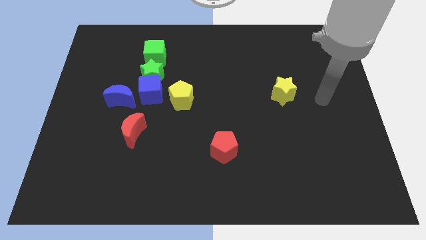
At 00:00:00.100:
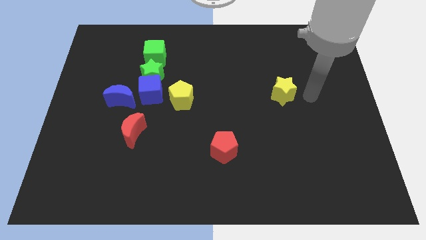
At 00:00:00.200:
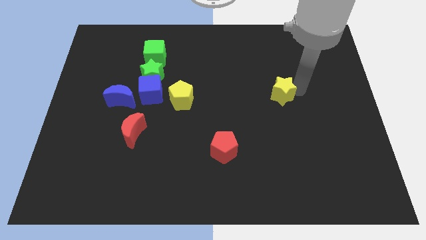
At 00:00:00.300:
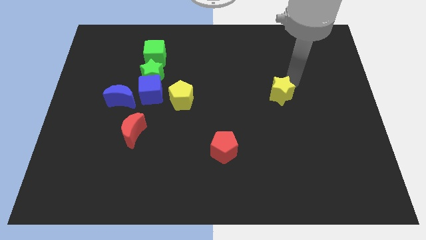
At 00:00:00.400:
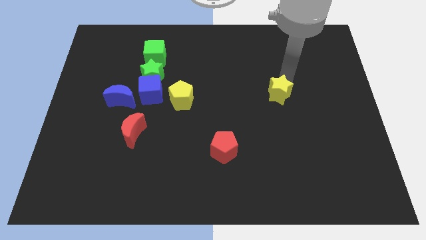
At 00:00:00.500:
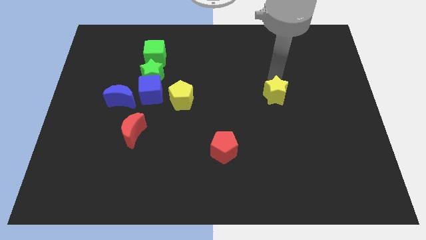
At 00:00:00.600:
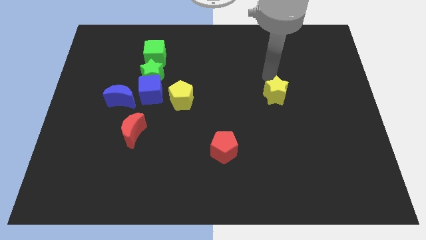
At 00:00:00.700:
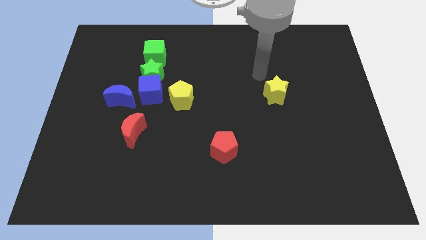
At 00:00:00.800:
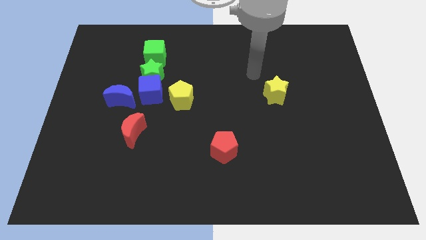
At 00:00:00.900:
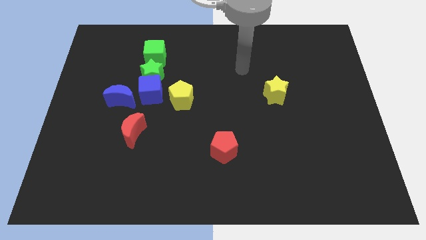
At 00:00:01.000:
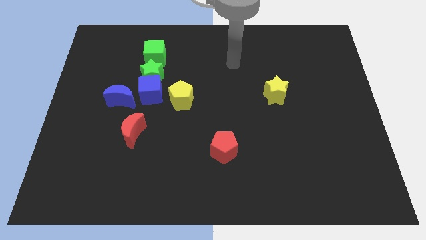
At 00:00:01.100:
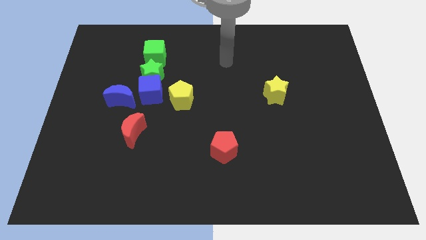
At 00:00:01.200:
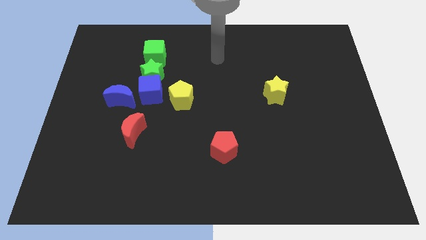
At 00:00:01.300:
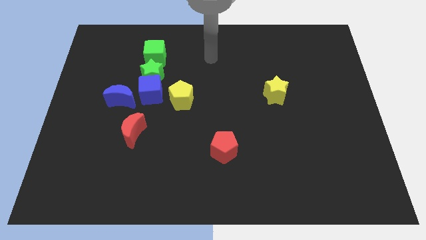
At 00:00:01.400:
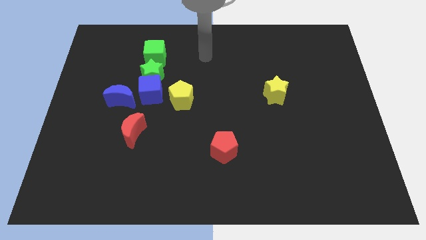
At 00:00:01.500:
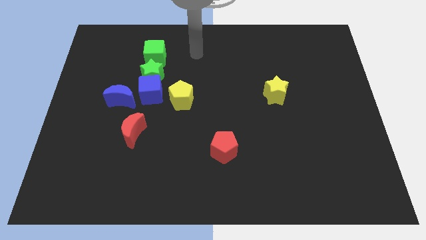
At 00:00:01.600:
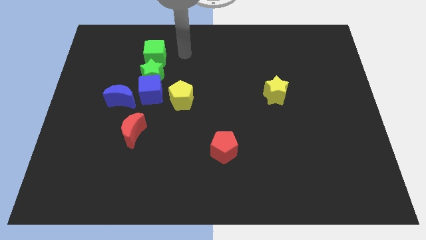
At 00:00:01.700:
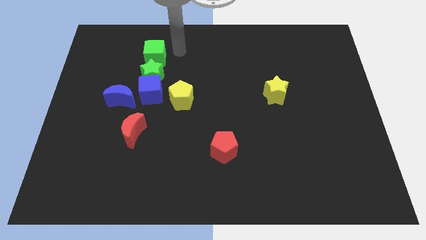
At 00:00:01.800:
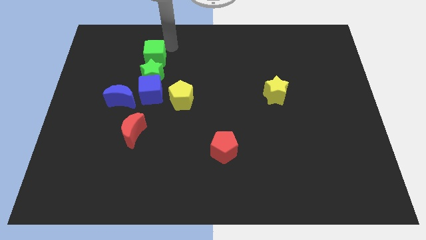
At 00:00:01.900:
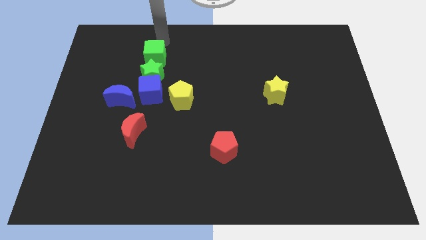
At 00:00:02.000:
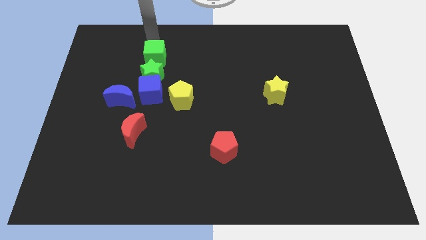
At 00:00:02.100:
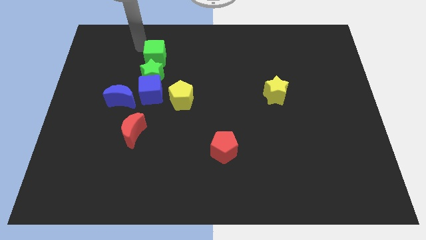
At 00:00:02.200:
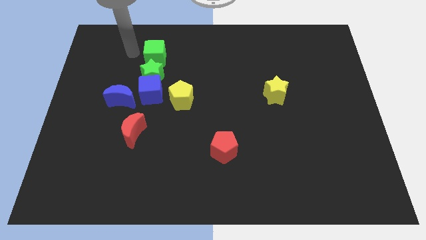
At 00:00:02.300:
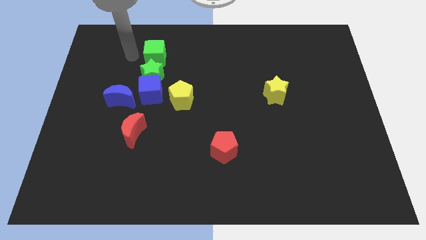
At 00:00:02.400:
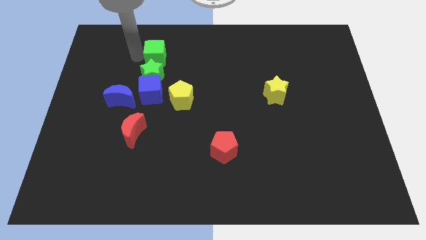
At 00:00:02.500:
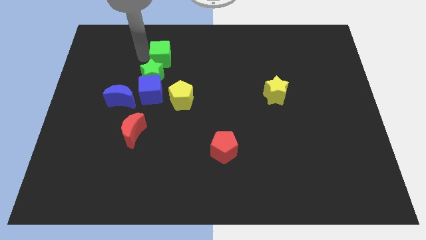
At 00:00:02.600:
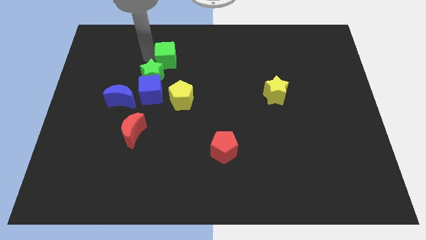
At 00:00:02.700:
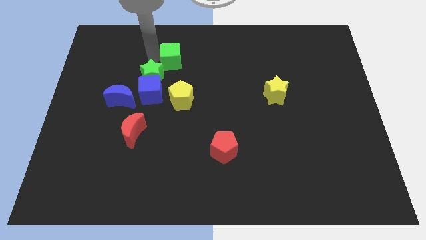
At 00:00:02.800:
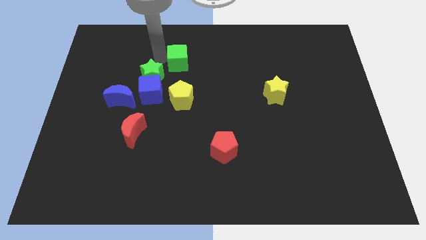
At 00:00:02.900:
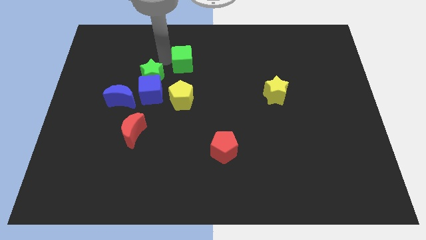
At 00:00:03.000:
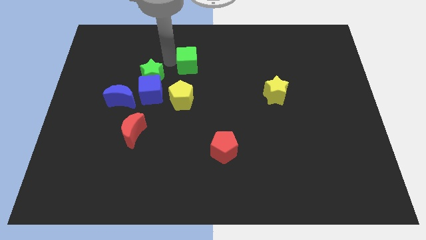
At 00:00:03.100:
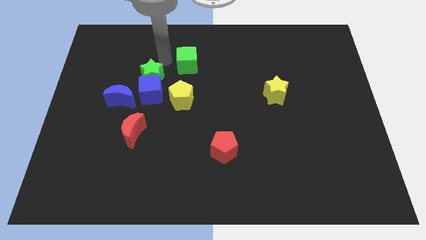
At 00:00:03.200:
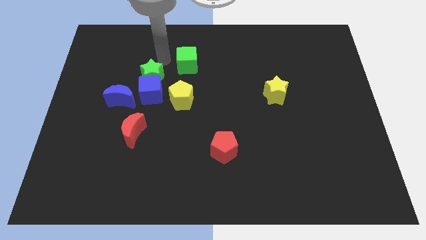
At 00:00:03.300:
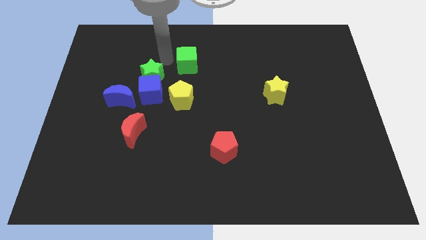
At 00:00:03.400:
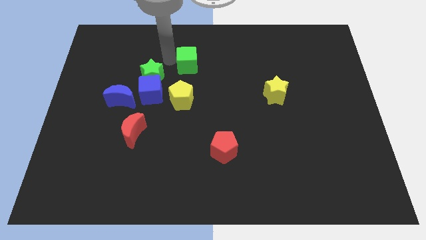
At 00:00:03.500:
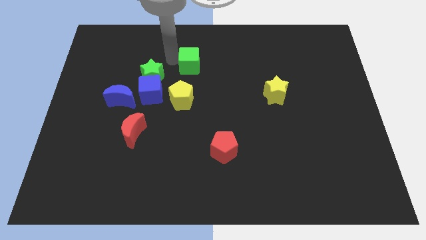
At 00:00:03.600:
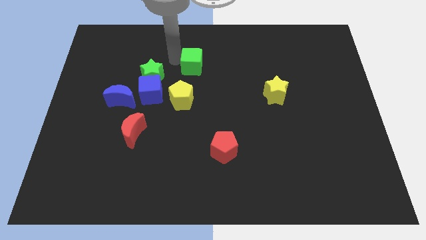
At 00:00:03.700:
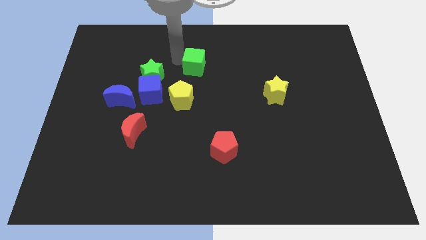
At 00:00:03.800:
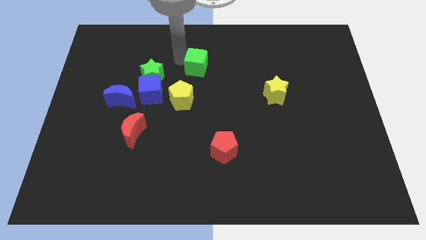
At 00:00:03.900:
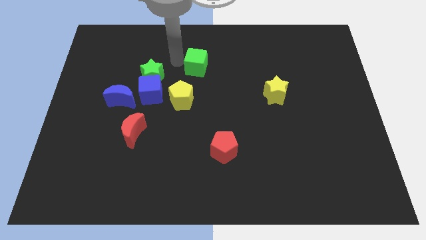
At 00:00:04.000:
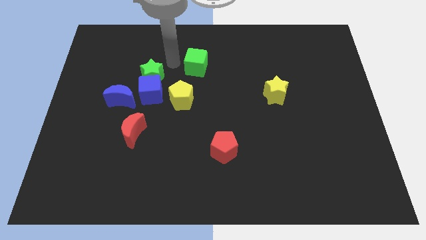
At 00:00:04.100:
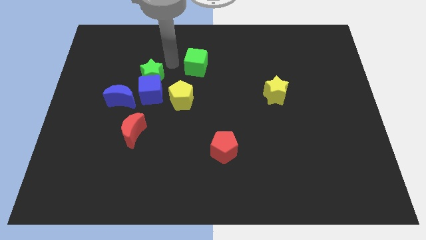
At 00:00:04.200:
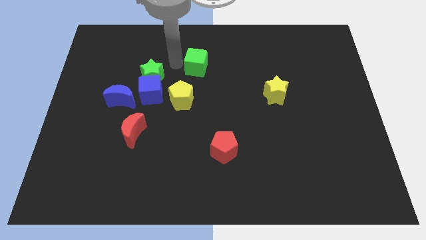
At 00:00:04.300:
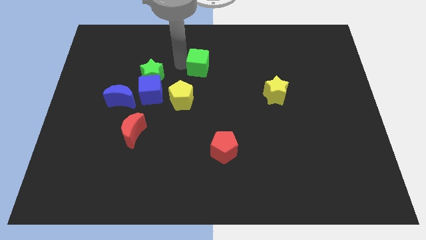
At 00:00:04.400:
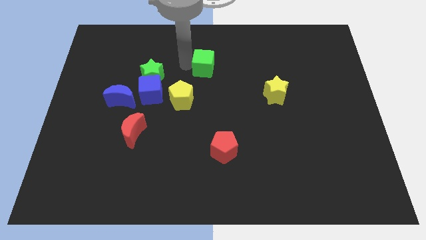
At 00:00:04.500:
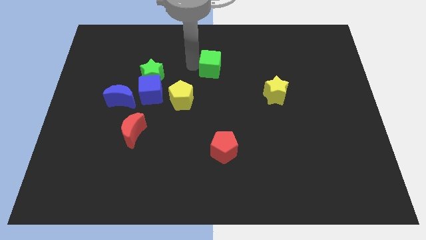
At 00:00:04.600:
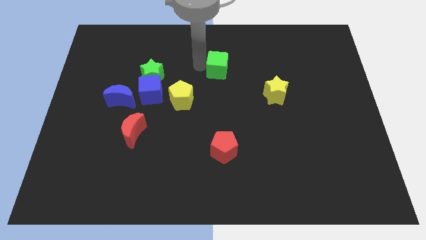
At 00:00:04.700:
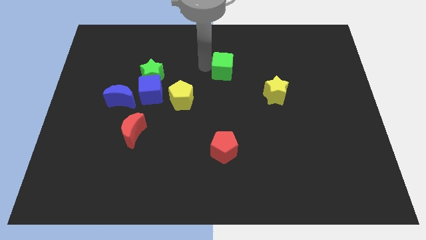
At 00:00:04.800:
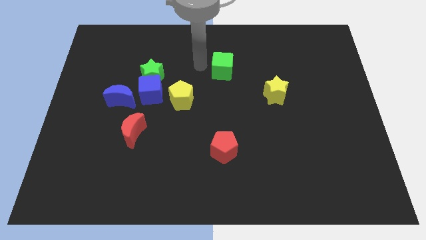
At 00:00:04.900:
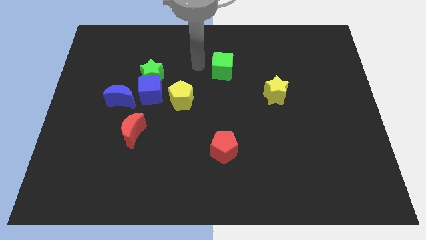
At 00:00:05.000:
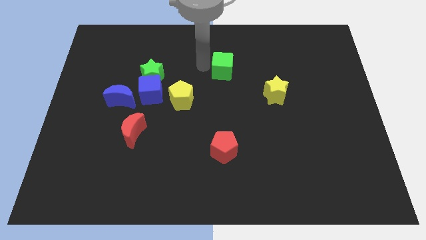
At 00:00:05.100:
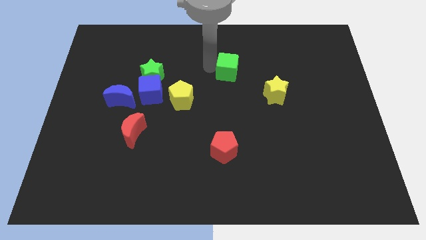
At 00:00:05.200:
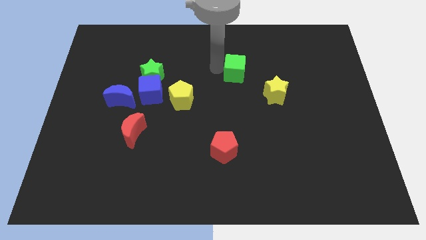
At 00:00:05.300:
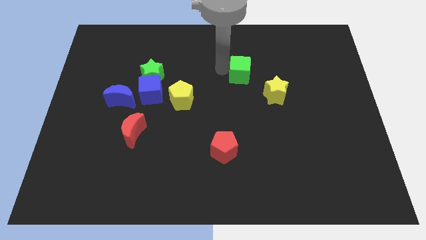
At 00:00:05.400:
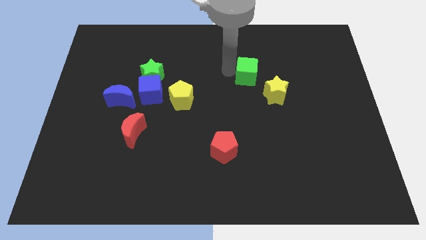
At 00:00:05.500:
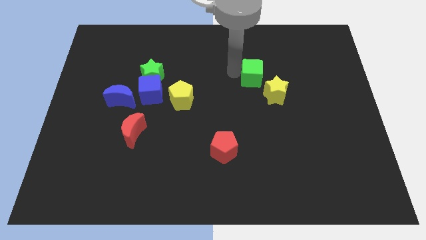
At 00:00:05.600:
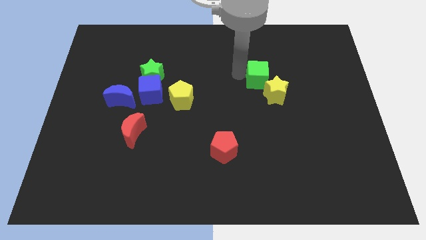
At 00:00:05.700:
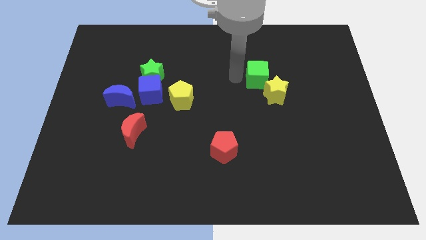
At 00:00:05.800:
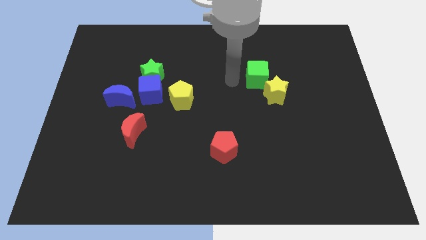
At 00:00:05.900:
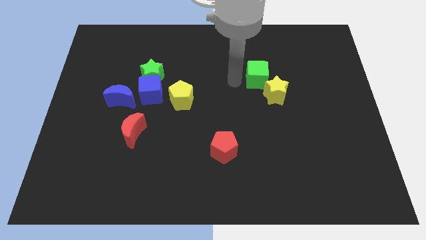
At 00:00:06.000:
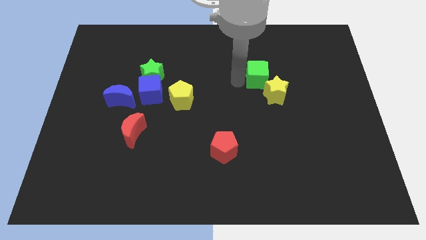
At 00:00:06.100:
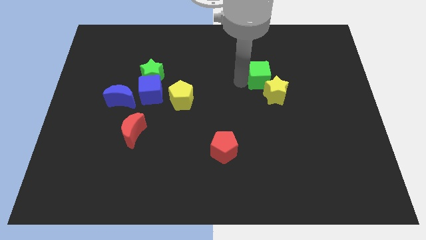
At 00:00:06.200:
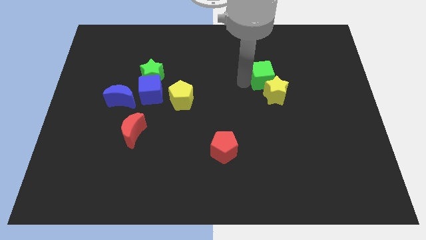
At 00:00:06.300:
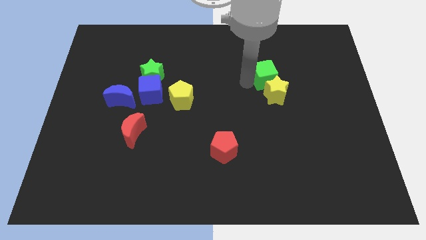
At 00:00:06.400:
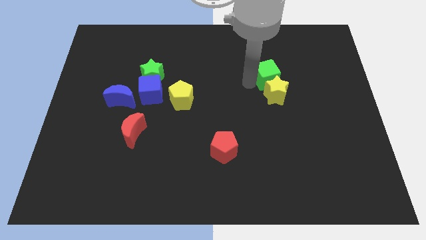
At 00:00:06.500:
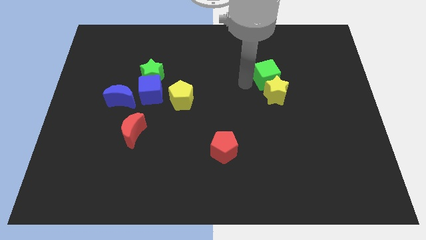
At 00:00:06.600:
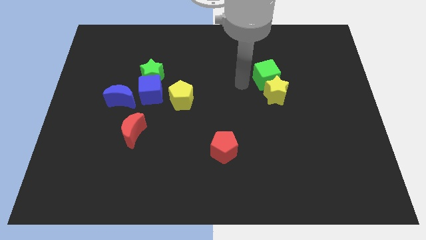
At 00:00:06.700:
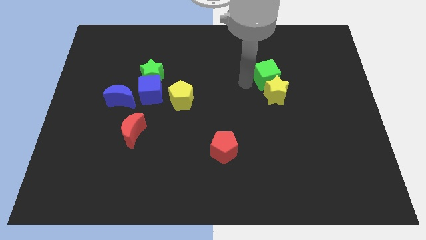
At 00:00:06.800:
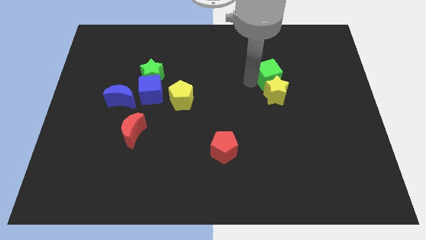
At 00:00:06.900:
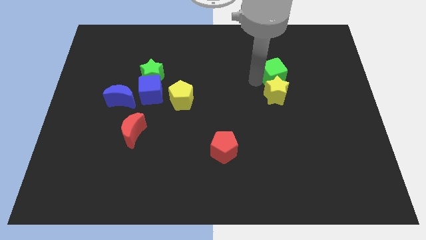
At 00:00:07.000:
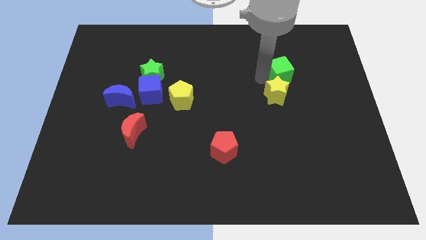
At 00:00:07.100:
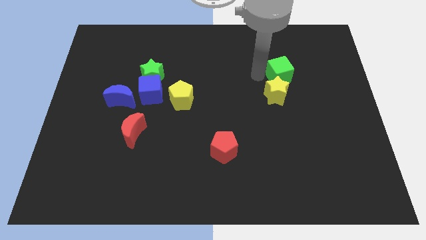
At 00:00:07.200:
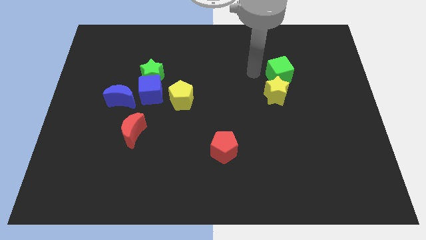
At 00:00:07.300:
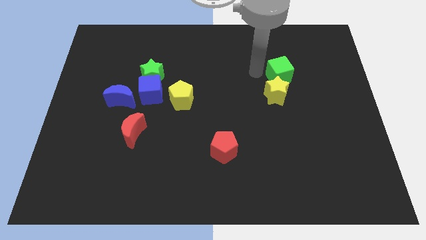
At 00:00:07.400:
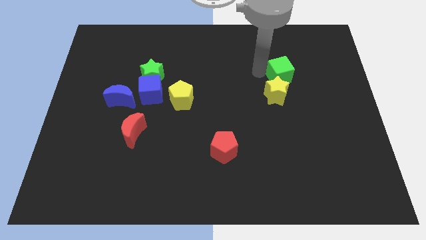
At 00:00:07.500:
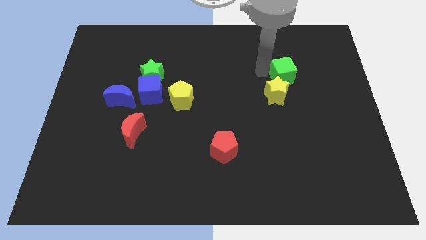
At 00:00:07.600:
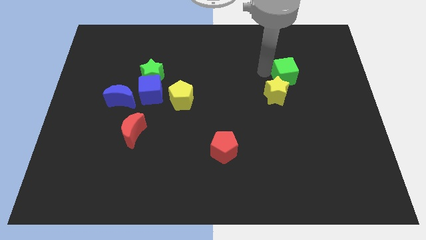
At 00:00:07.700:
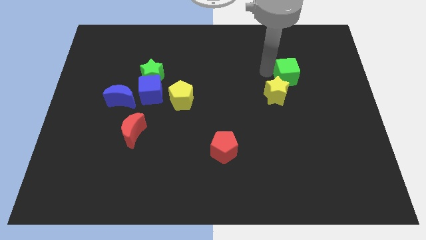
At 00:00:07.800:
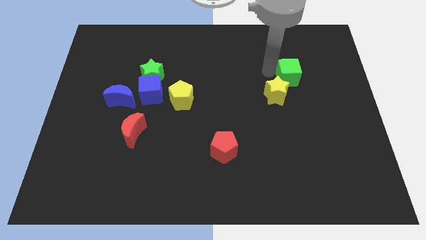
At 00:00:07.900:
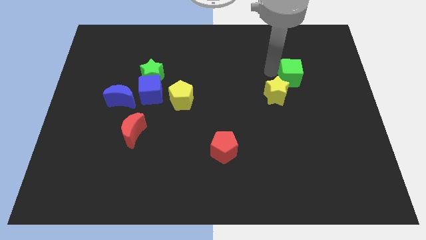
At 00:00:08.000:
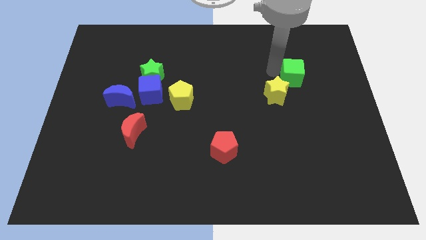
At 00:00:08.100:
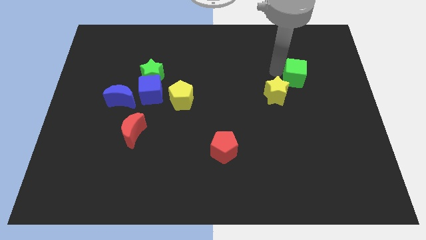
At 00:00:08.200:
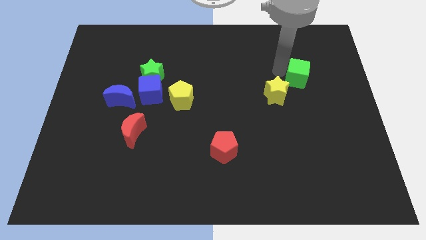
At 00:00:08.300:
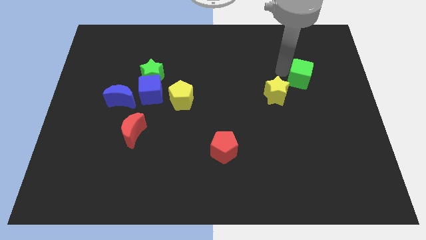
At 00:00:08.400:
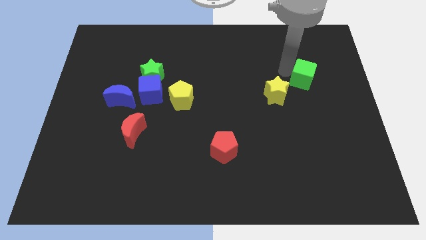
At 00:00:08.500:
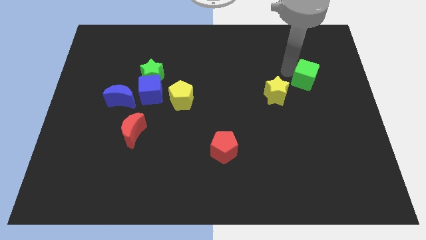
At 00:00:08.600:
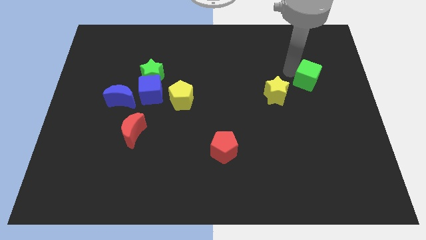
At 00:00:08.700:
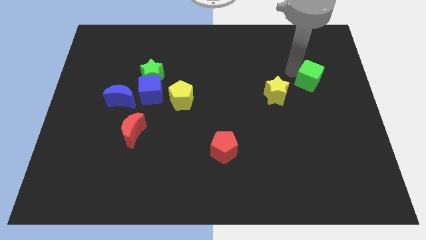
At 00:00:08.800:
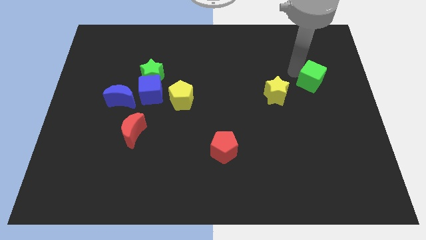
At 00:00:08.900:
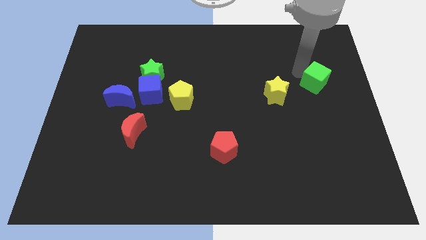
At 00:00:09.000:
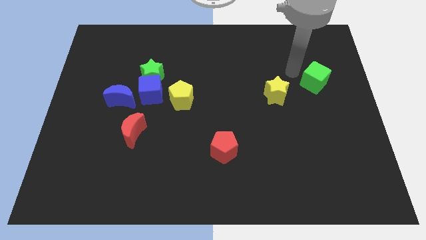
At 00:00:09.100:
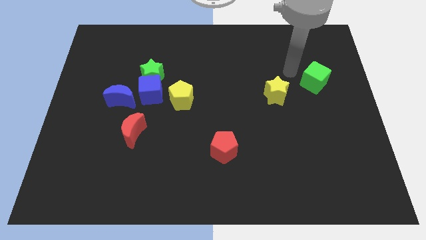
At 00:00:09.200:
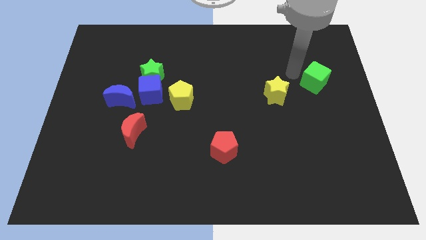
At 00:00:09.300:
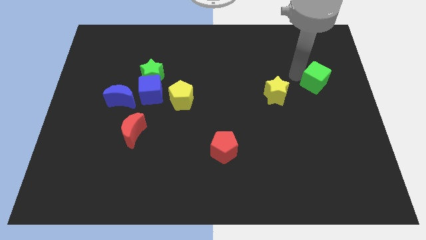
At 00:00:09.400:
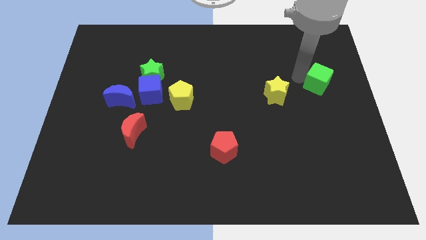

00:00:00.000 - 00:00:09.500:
slide the green cube to the center right
